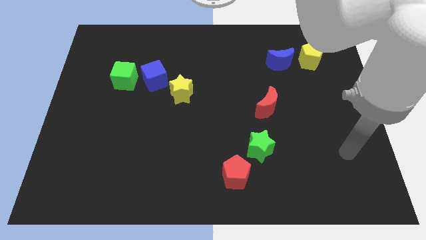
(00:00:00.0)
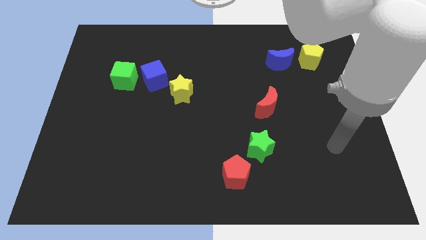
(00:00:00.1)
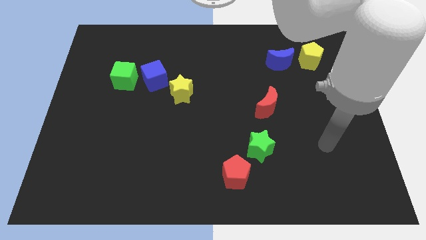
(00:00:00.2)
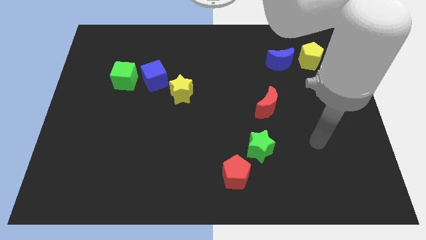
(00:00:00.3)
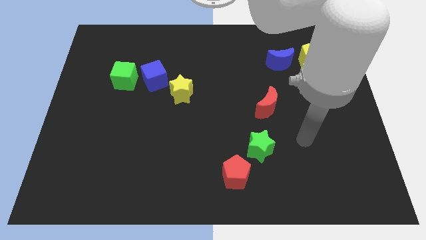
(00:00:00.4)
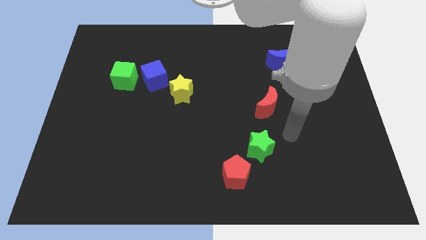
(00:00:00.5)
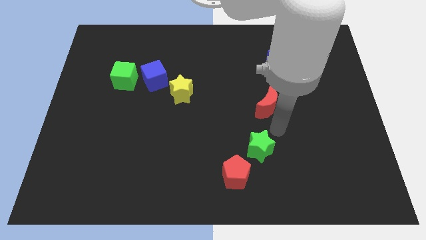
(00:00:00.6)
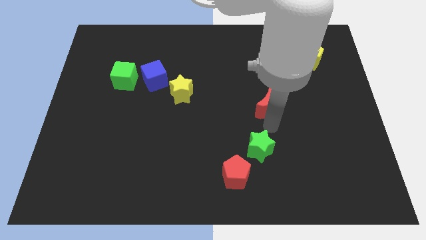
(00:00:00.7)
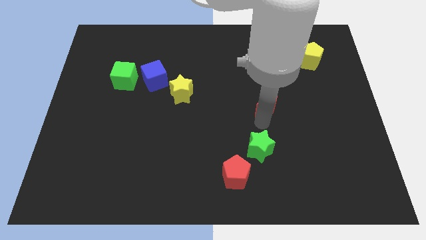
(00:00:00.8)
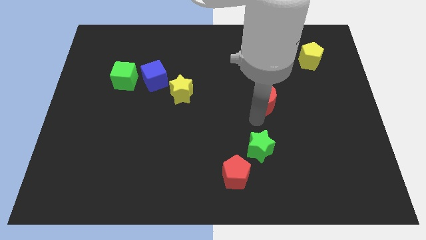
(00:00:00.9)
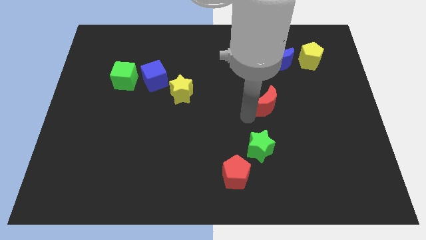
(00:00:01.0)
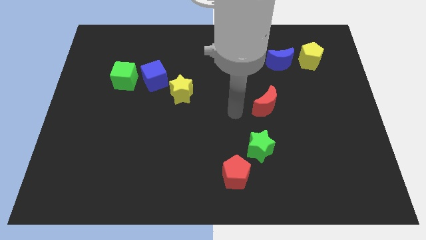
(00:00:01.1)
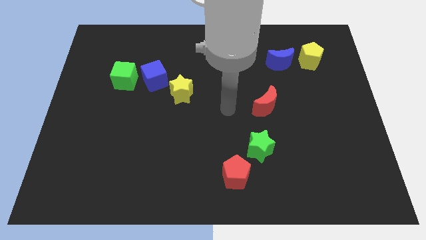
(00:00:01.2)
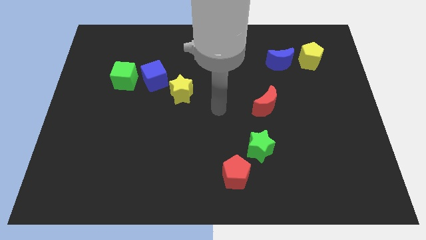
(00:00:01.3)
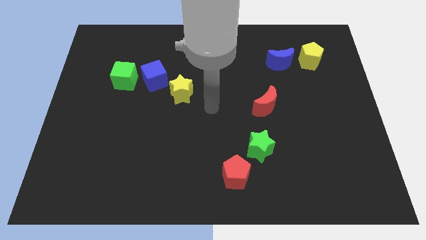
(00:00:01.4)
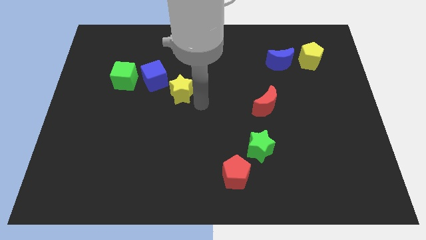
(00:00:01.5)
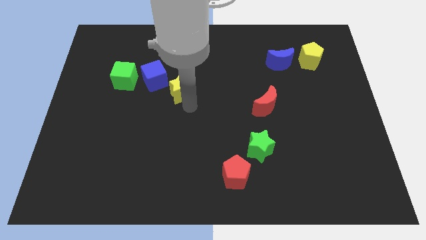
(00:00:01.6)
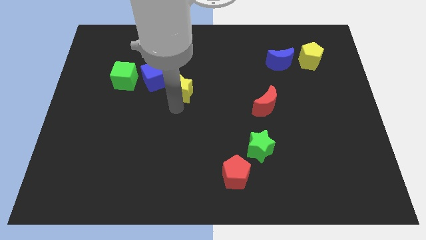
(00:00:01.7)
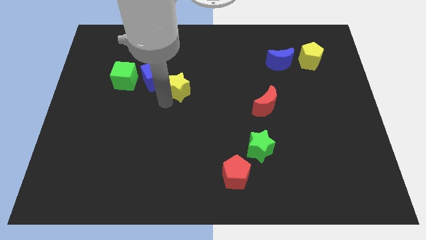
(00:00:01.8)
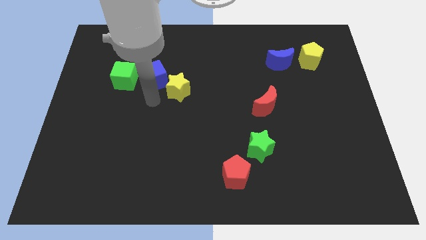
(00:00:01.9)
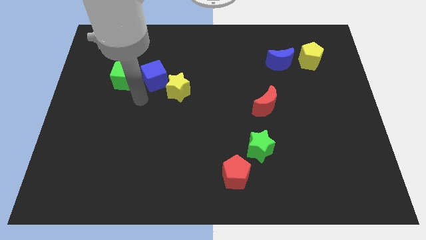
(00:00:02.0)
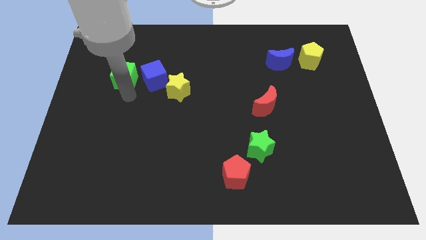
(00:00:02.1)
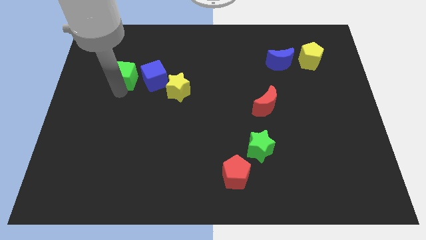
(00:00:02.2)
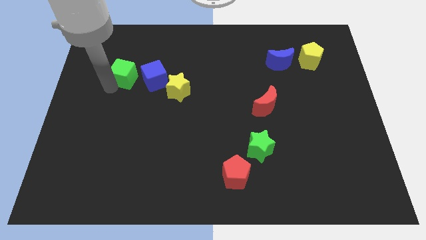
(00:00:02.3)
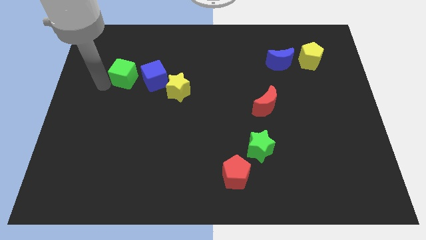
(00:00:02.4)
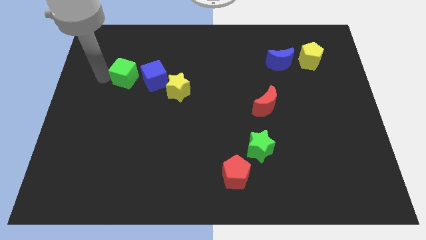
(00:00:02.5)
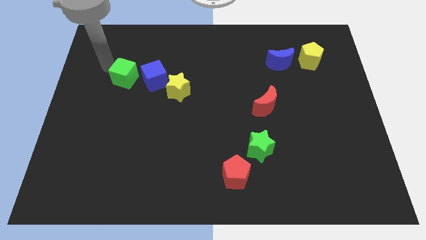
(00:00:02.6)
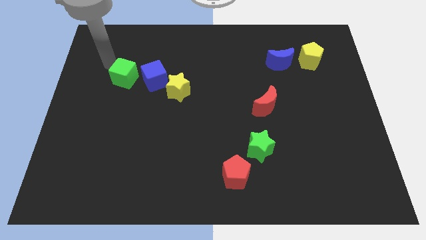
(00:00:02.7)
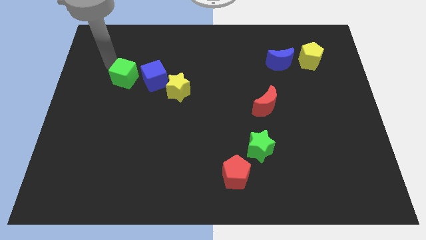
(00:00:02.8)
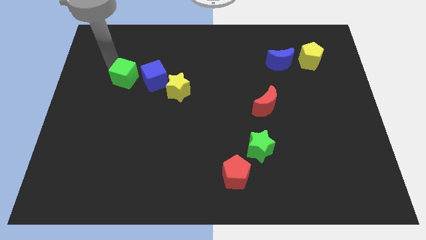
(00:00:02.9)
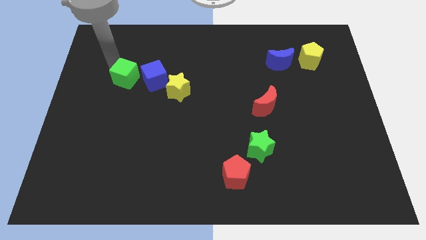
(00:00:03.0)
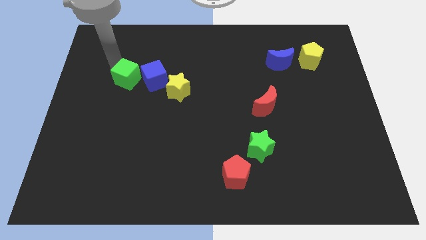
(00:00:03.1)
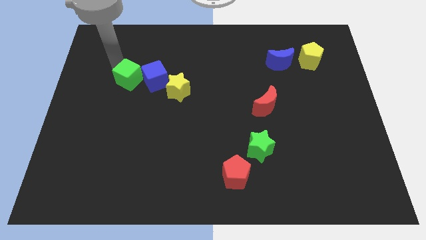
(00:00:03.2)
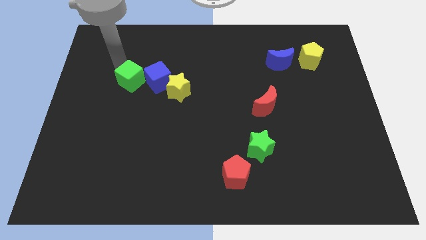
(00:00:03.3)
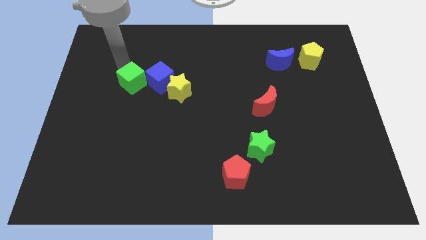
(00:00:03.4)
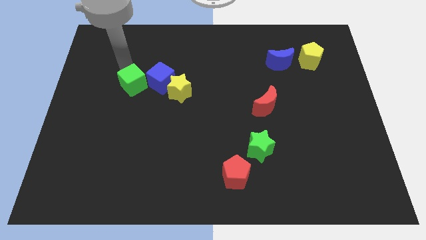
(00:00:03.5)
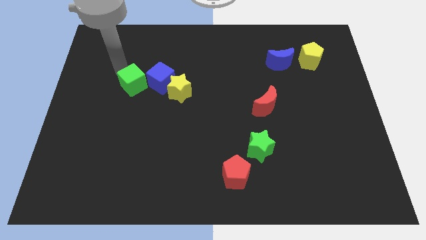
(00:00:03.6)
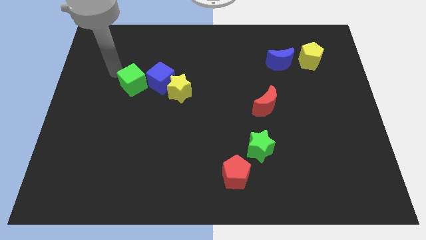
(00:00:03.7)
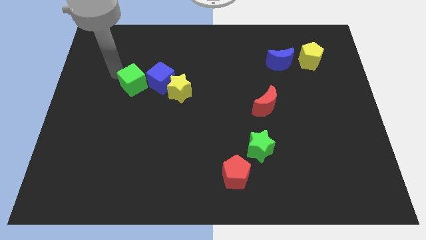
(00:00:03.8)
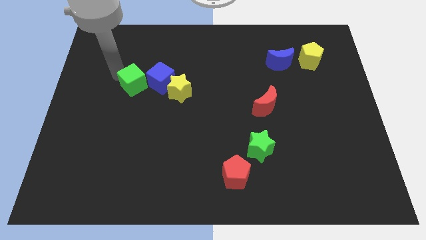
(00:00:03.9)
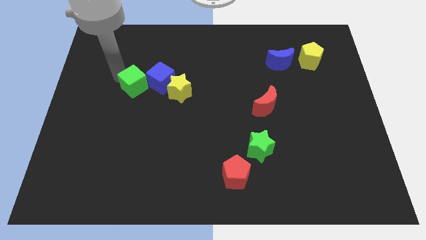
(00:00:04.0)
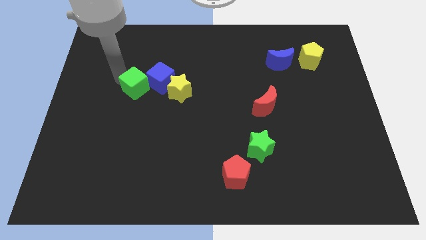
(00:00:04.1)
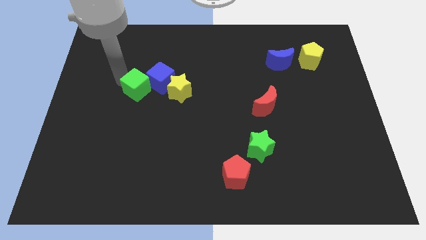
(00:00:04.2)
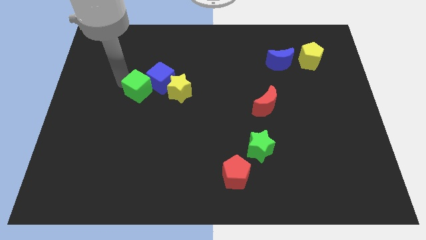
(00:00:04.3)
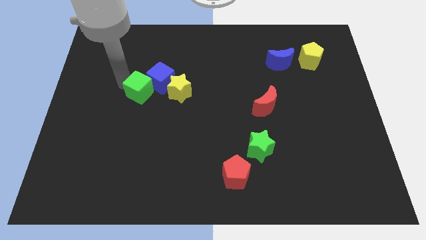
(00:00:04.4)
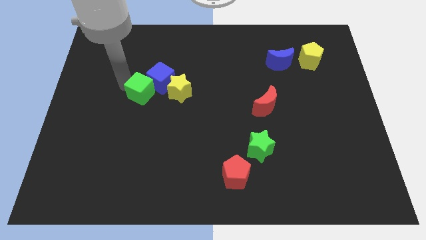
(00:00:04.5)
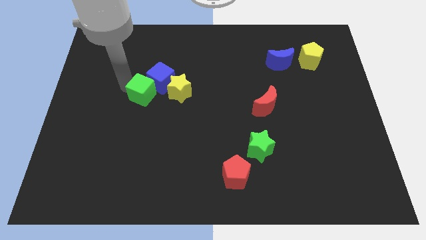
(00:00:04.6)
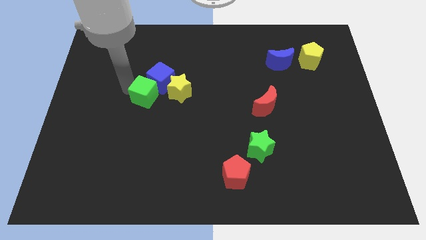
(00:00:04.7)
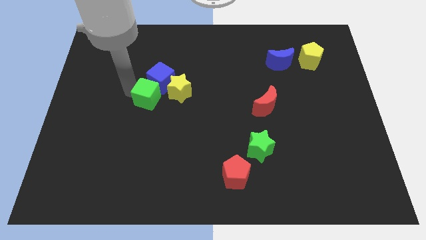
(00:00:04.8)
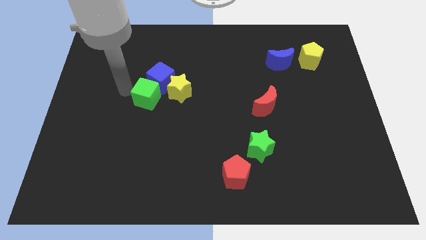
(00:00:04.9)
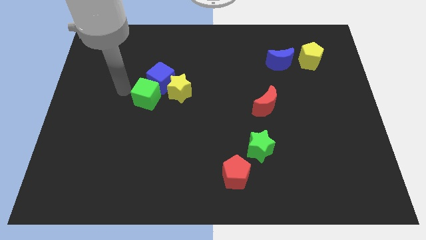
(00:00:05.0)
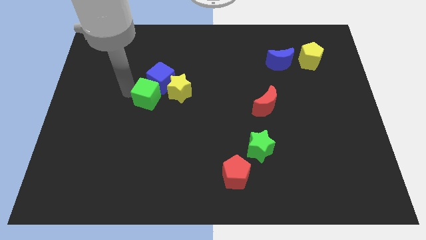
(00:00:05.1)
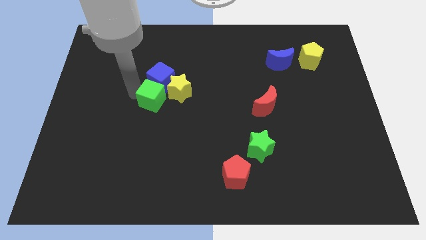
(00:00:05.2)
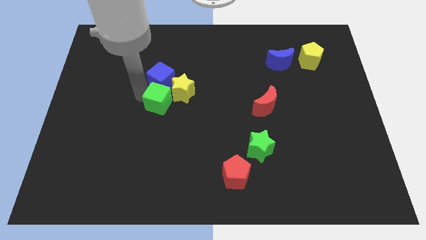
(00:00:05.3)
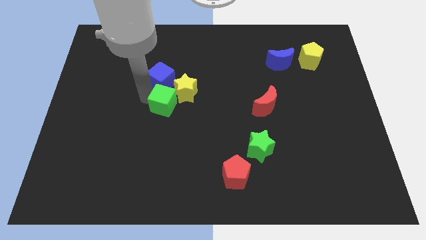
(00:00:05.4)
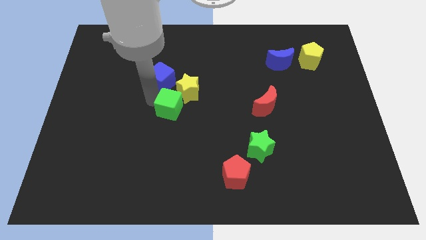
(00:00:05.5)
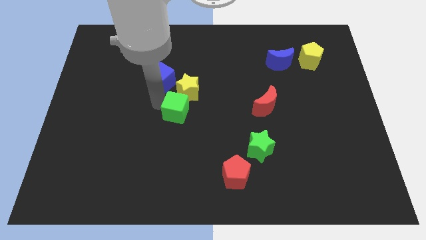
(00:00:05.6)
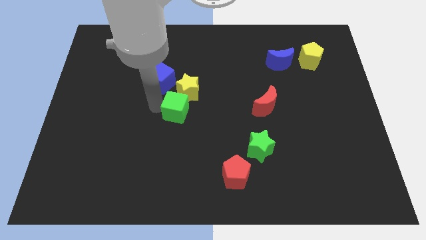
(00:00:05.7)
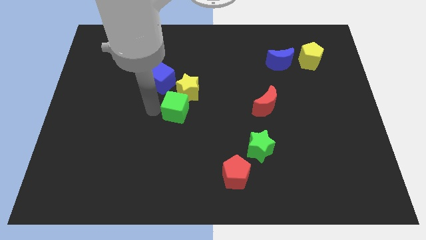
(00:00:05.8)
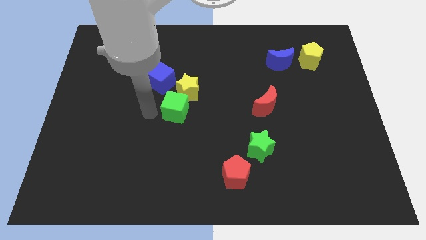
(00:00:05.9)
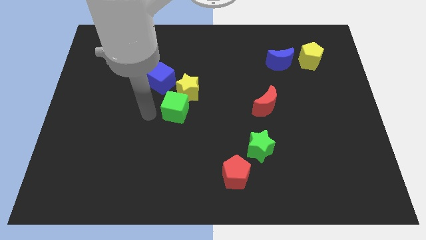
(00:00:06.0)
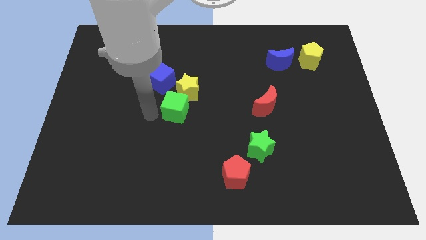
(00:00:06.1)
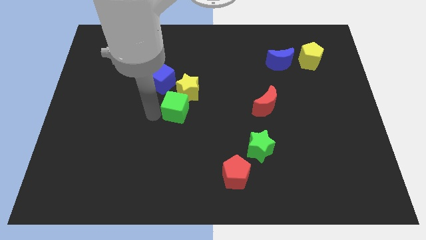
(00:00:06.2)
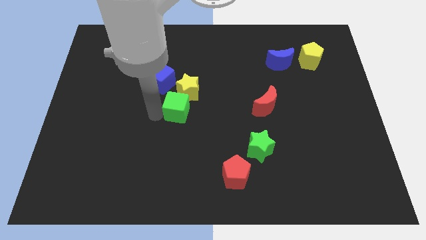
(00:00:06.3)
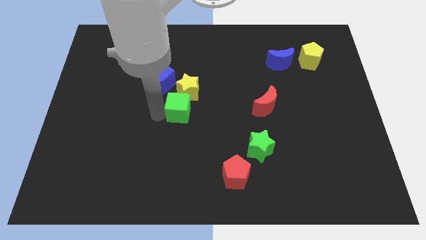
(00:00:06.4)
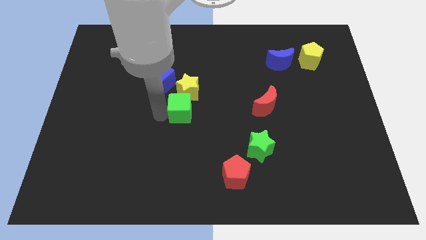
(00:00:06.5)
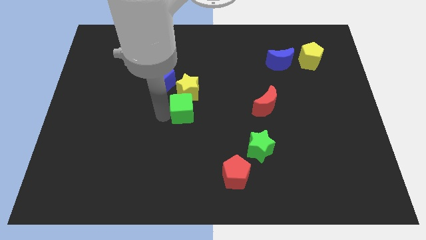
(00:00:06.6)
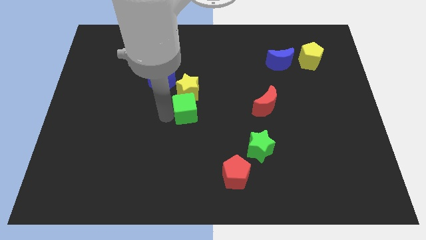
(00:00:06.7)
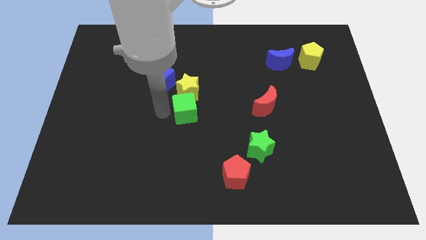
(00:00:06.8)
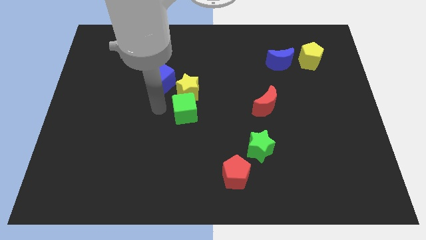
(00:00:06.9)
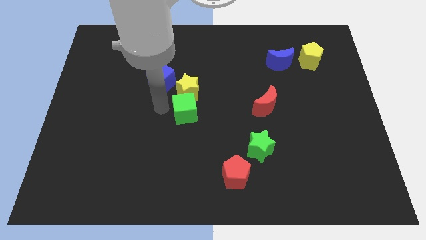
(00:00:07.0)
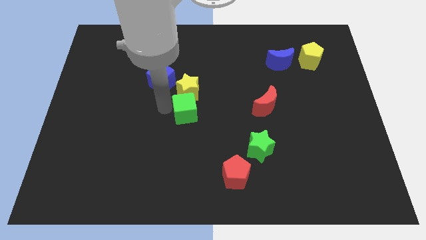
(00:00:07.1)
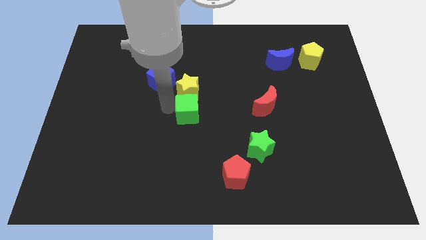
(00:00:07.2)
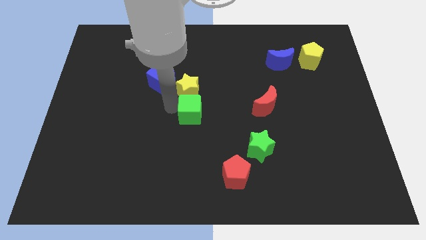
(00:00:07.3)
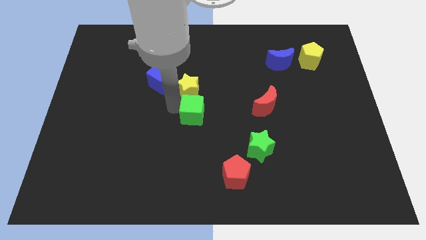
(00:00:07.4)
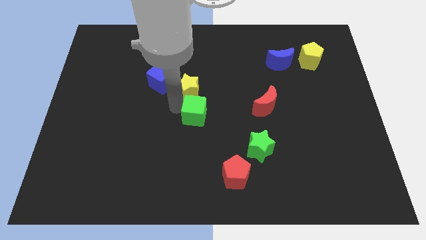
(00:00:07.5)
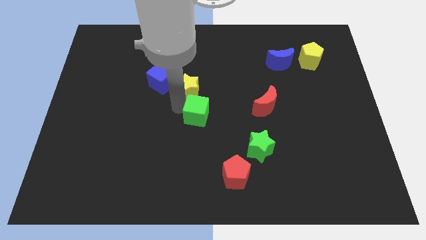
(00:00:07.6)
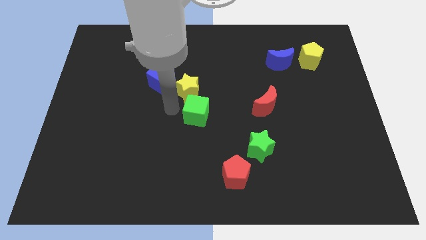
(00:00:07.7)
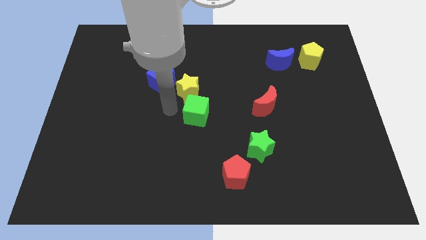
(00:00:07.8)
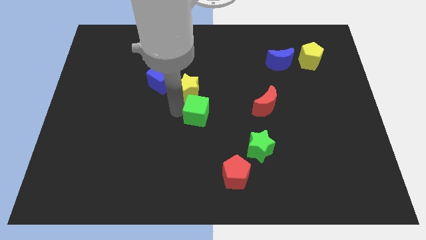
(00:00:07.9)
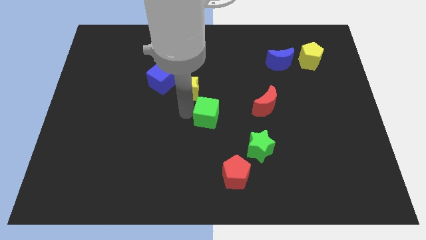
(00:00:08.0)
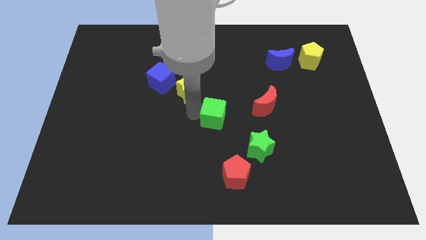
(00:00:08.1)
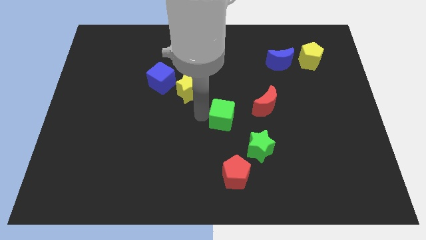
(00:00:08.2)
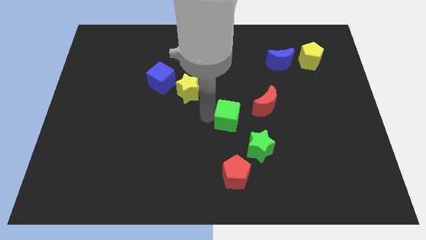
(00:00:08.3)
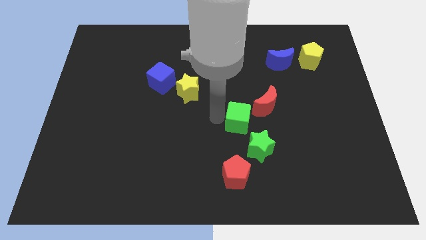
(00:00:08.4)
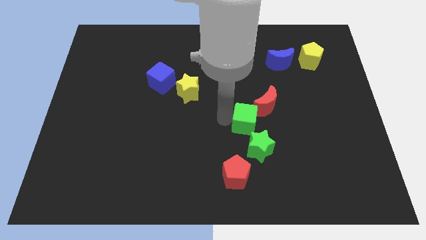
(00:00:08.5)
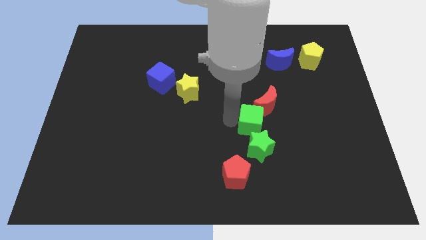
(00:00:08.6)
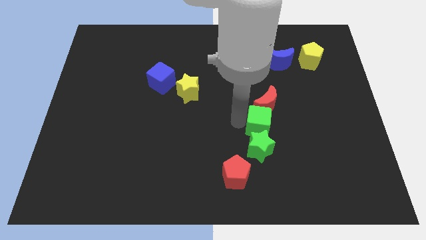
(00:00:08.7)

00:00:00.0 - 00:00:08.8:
put the green cube diagonally up and to the right of the green star
